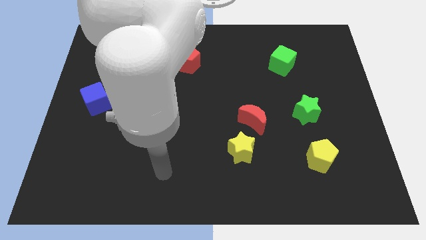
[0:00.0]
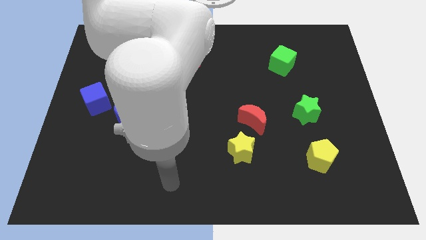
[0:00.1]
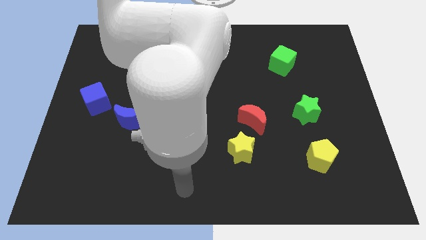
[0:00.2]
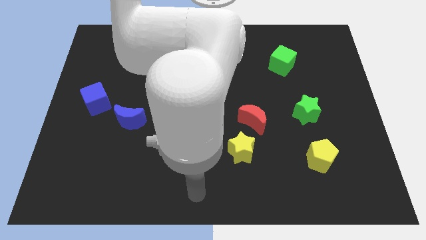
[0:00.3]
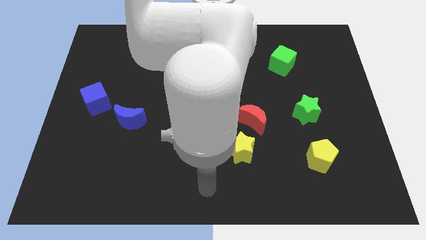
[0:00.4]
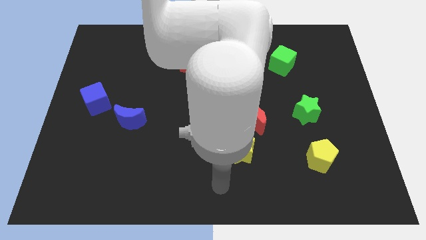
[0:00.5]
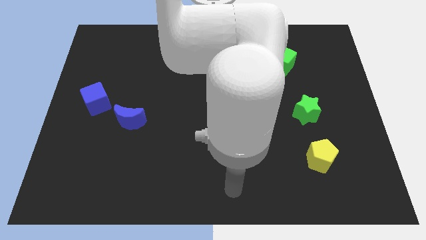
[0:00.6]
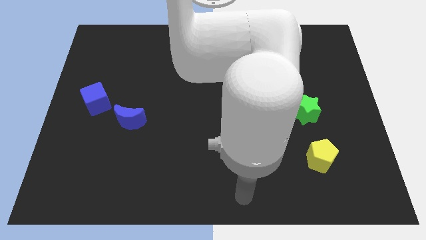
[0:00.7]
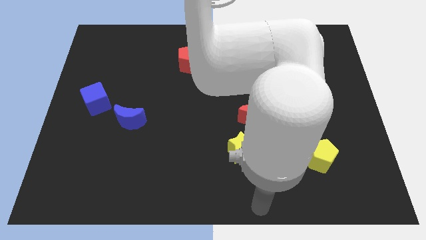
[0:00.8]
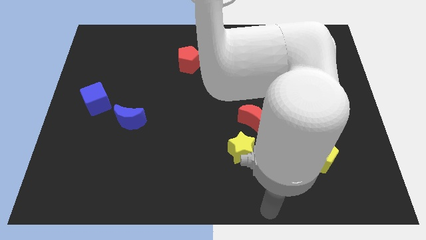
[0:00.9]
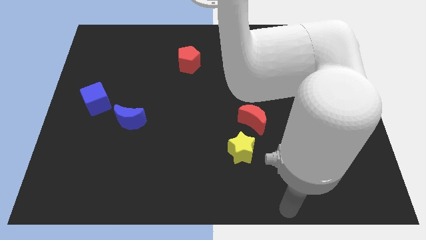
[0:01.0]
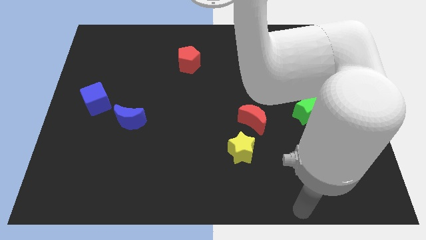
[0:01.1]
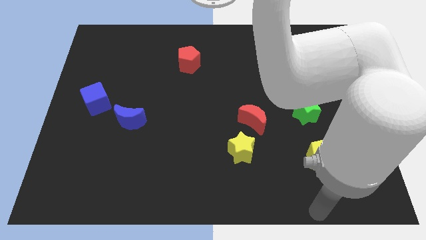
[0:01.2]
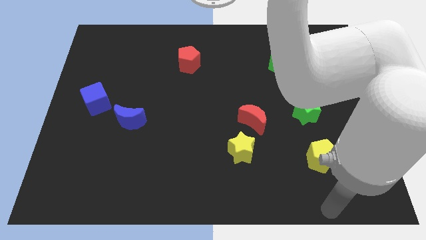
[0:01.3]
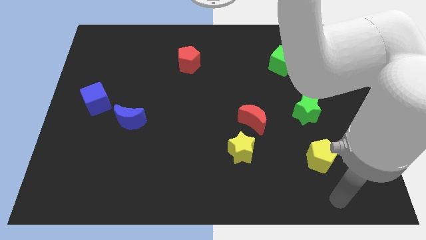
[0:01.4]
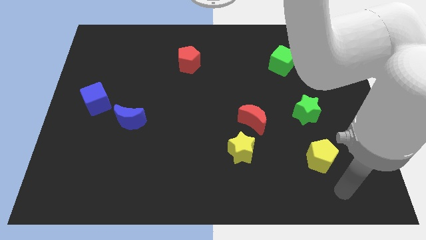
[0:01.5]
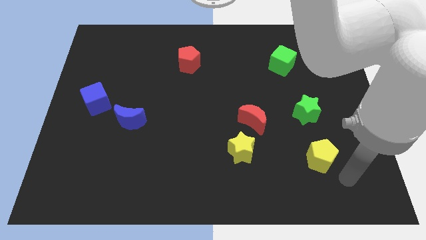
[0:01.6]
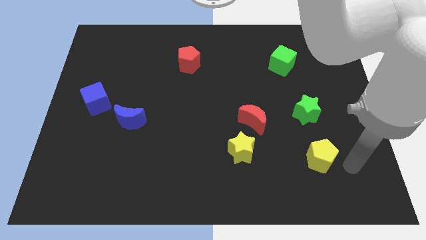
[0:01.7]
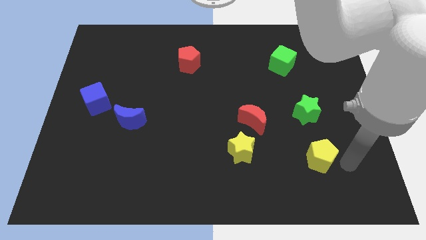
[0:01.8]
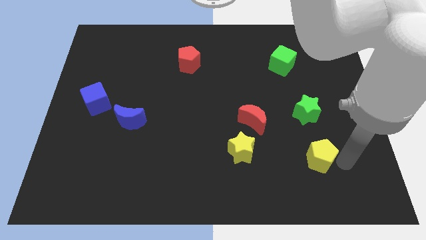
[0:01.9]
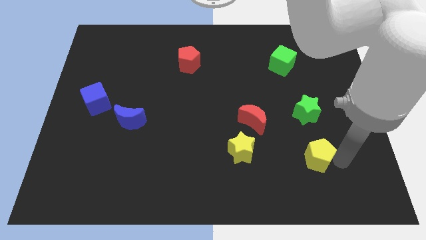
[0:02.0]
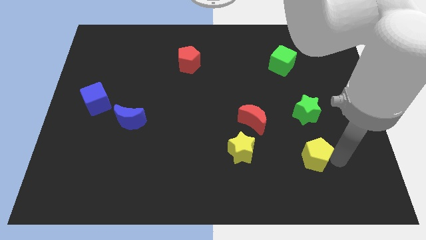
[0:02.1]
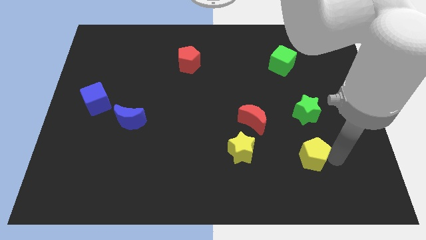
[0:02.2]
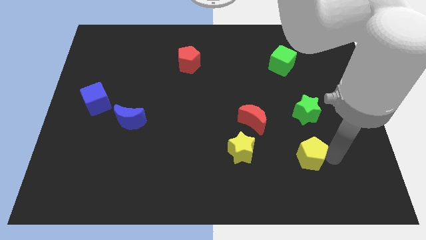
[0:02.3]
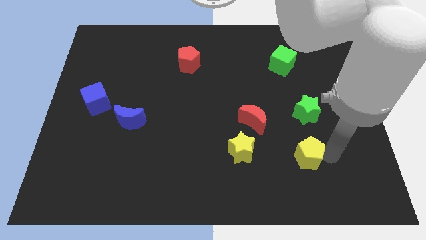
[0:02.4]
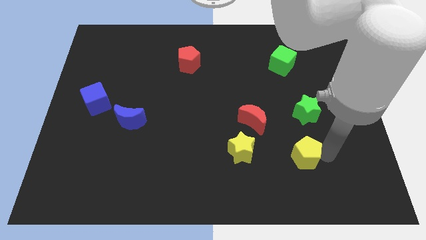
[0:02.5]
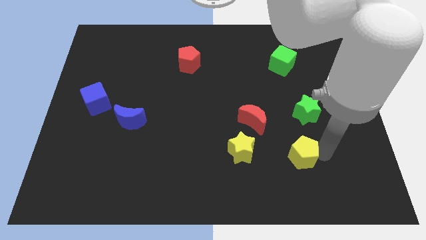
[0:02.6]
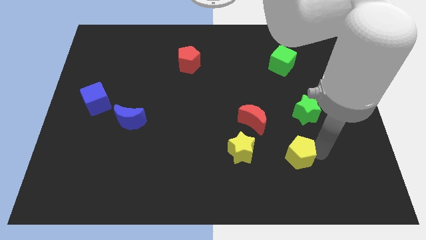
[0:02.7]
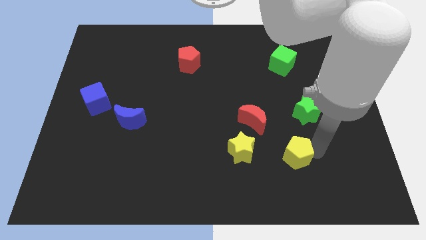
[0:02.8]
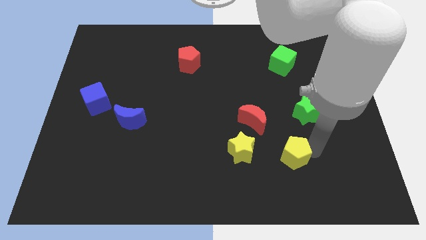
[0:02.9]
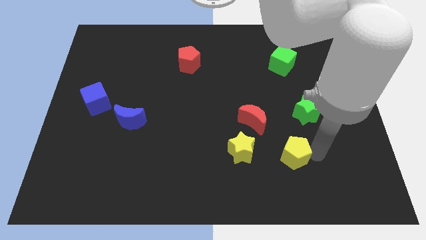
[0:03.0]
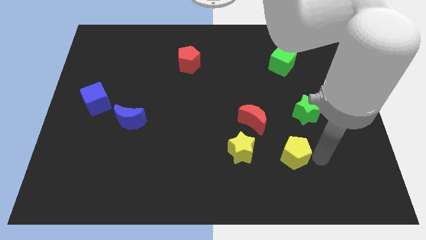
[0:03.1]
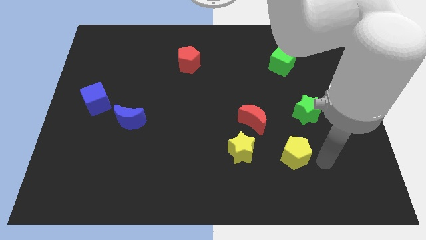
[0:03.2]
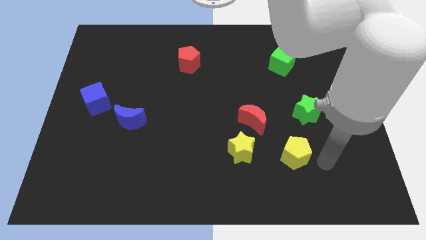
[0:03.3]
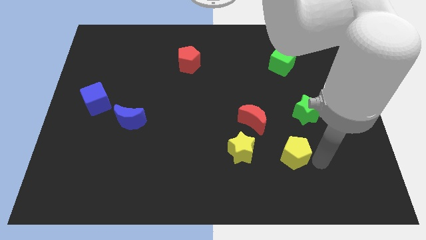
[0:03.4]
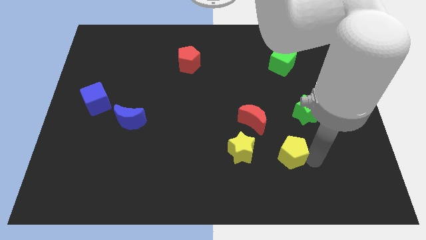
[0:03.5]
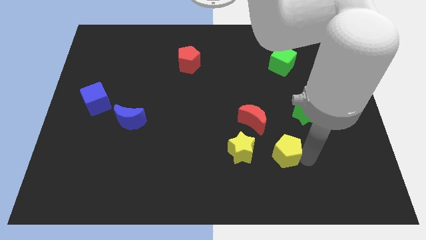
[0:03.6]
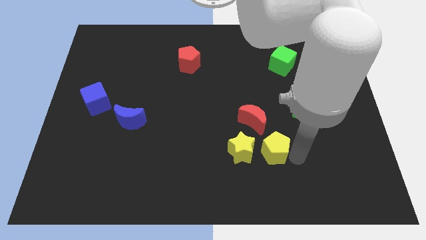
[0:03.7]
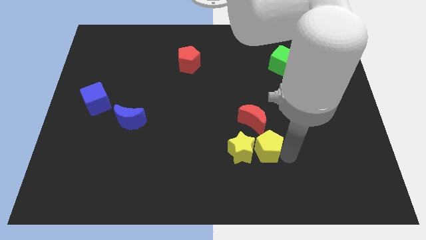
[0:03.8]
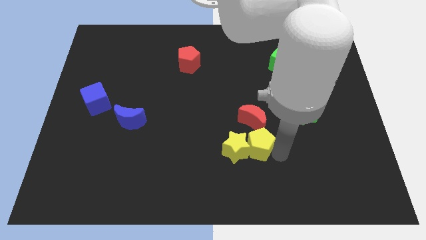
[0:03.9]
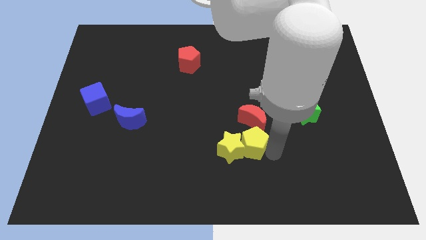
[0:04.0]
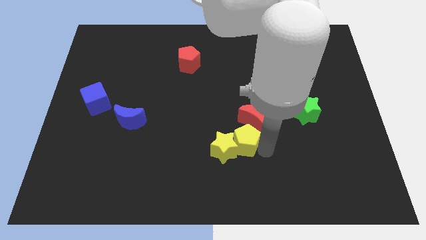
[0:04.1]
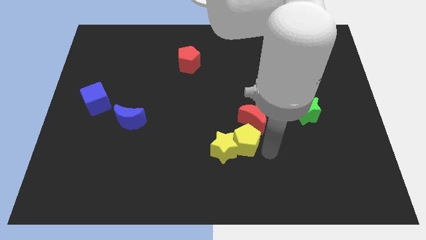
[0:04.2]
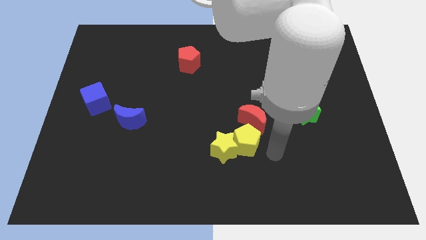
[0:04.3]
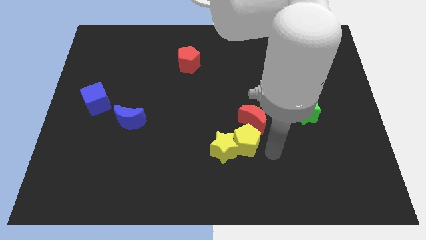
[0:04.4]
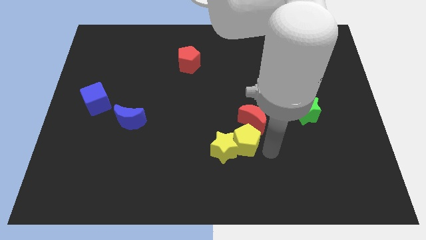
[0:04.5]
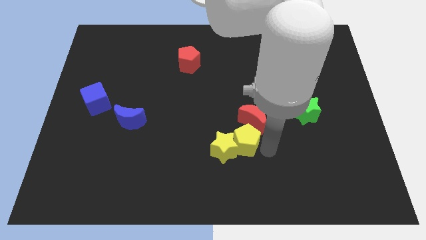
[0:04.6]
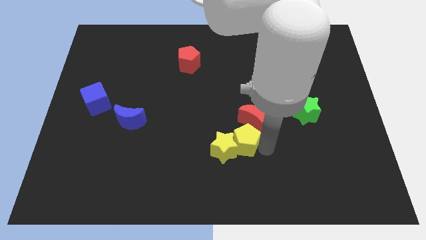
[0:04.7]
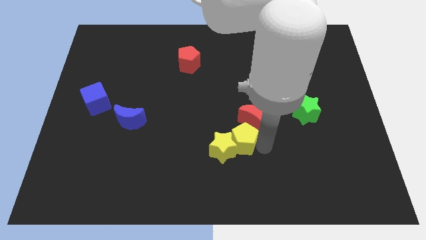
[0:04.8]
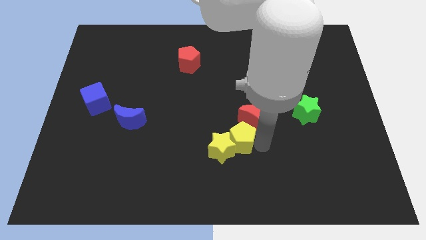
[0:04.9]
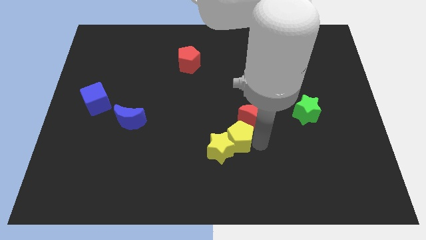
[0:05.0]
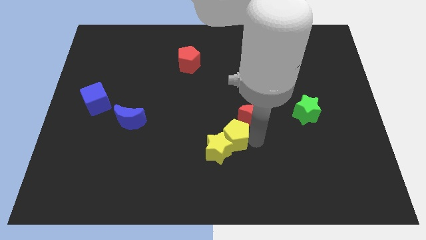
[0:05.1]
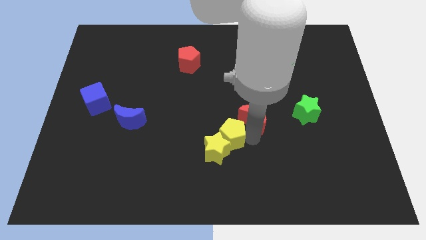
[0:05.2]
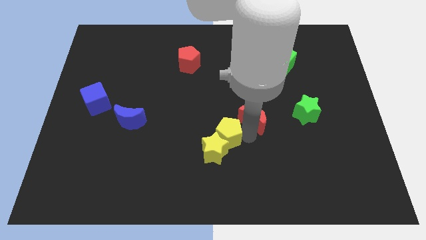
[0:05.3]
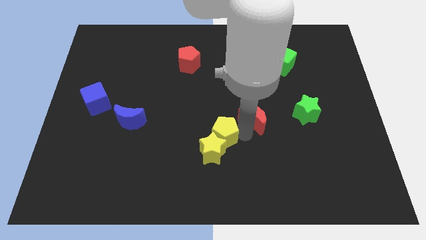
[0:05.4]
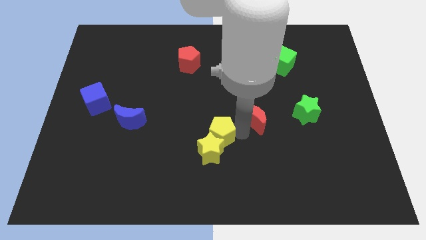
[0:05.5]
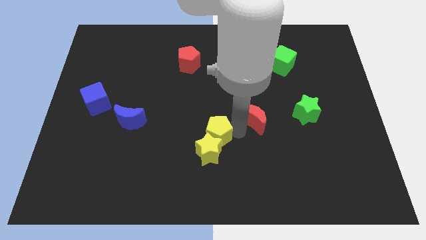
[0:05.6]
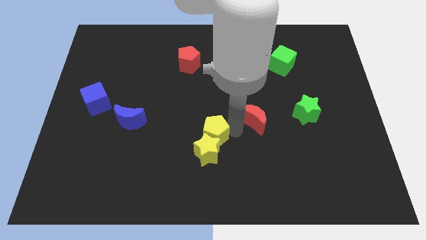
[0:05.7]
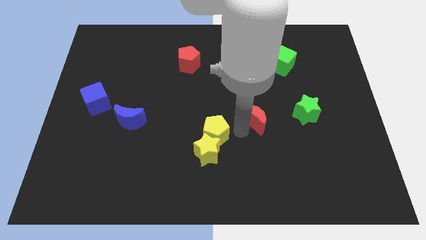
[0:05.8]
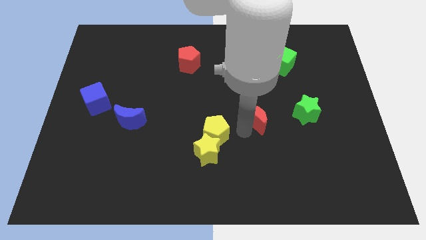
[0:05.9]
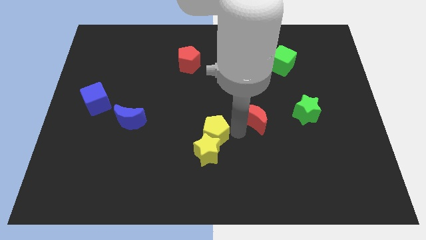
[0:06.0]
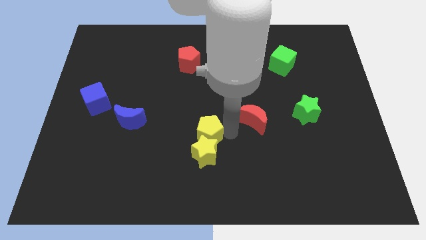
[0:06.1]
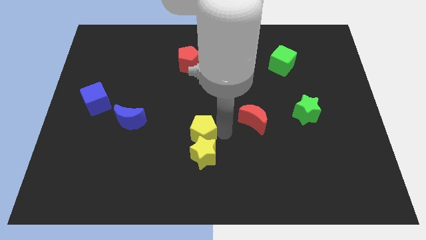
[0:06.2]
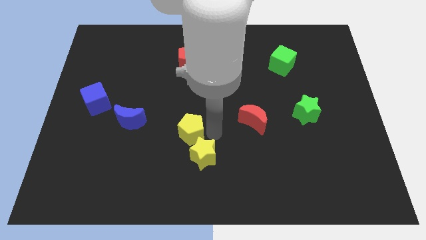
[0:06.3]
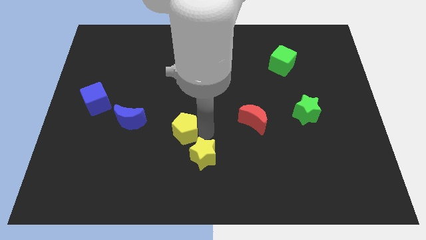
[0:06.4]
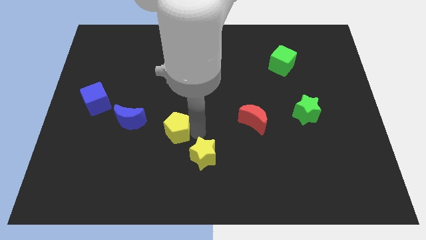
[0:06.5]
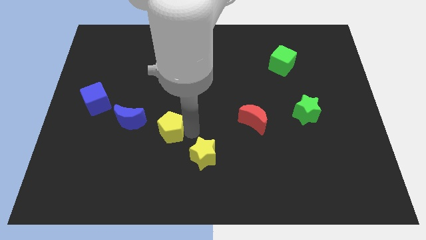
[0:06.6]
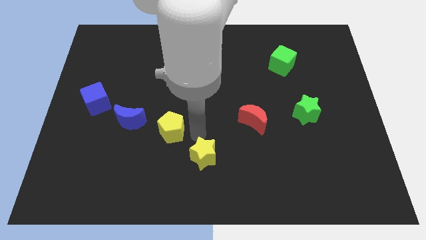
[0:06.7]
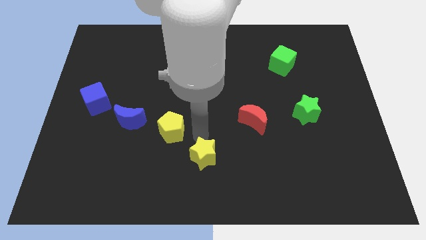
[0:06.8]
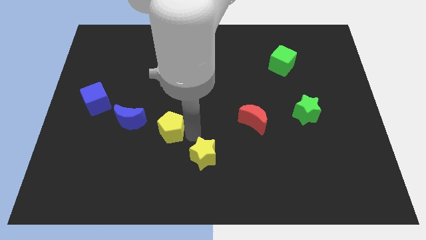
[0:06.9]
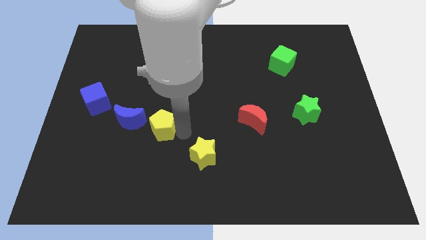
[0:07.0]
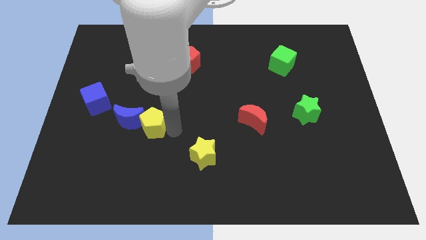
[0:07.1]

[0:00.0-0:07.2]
move the yellow pentagon to the blue moon

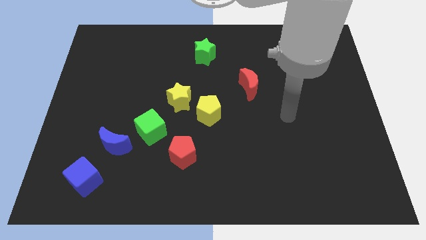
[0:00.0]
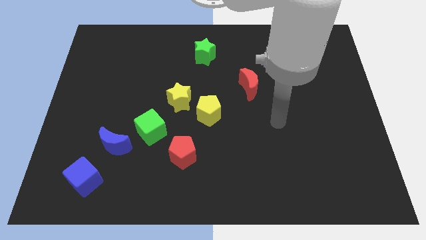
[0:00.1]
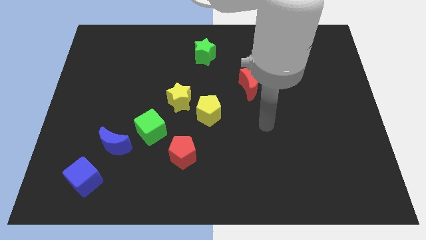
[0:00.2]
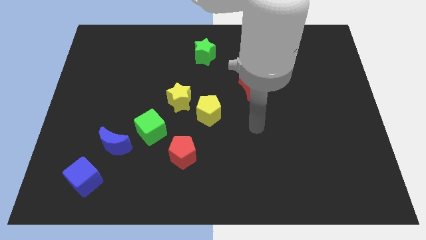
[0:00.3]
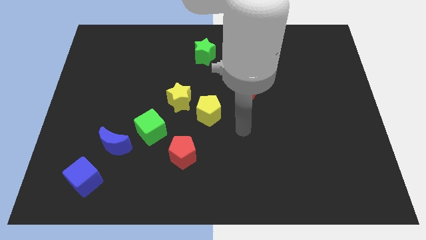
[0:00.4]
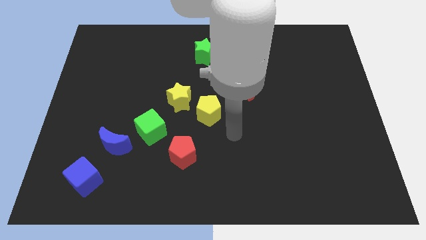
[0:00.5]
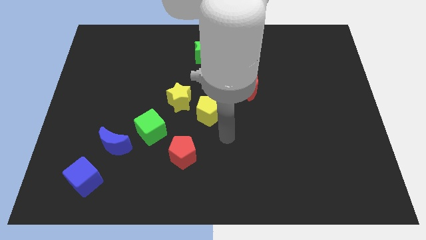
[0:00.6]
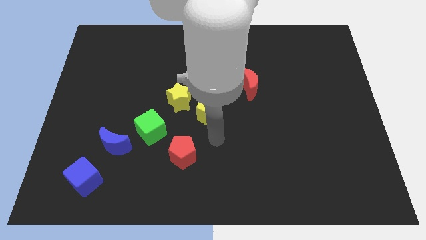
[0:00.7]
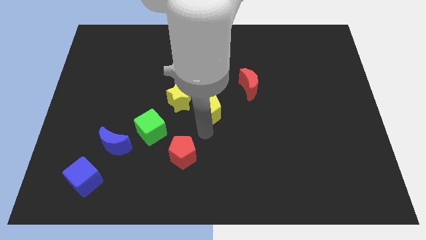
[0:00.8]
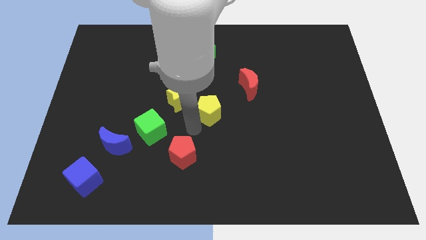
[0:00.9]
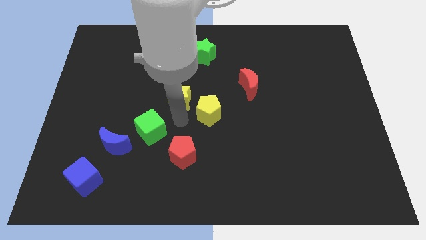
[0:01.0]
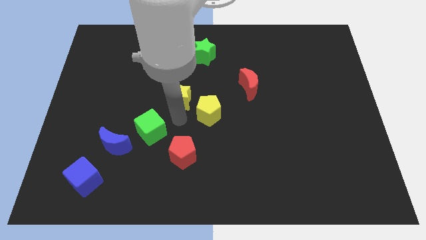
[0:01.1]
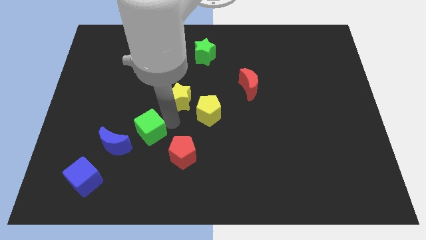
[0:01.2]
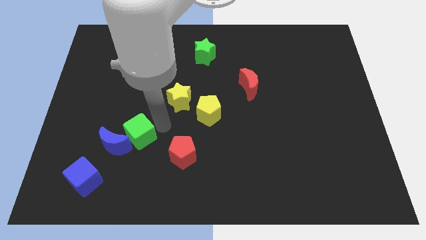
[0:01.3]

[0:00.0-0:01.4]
move the green cube to the blue moon
